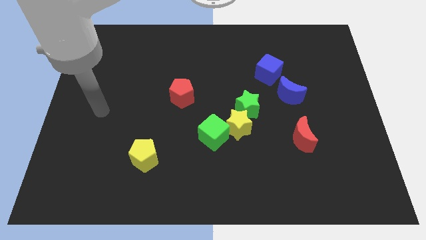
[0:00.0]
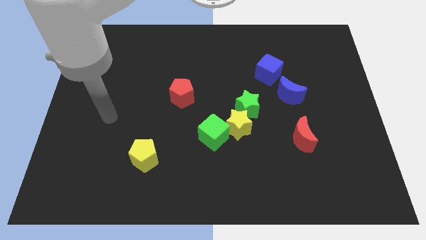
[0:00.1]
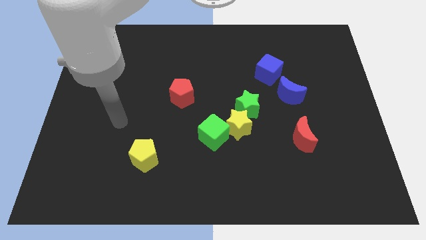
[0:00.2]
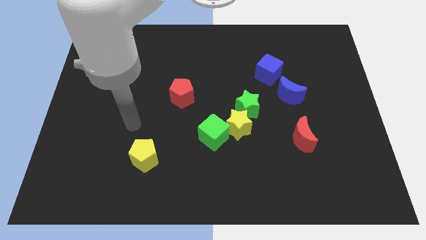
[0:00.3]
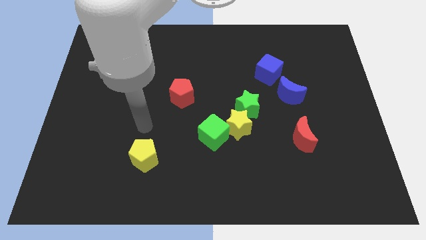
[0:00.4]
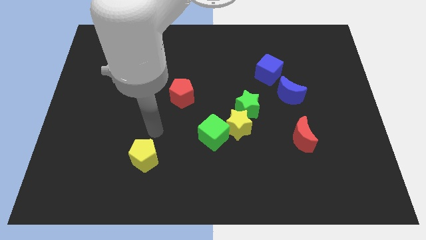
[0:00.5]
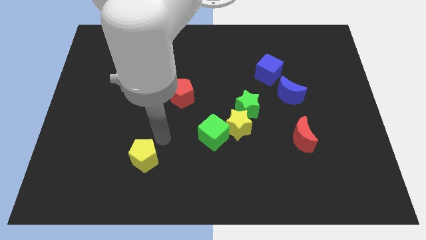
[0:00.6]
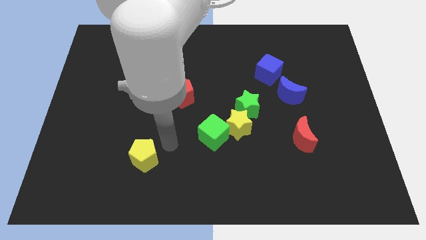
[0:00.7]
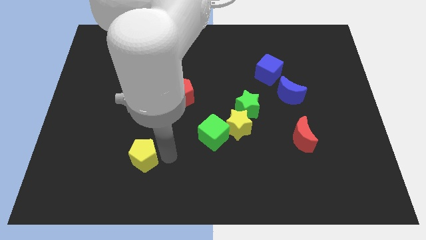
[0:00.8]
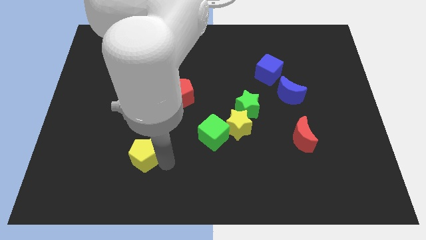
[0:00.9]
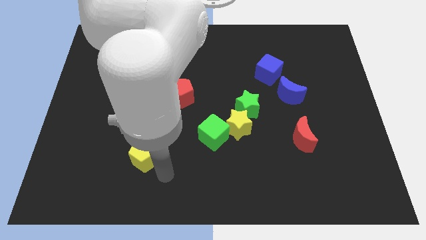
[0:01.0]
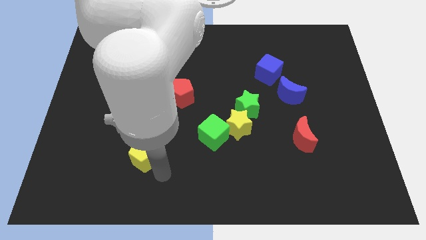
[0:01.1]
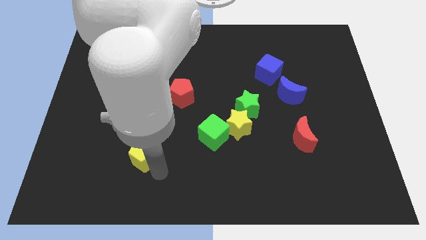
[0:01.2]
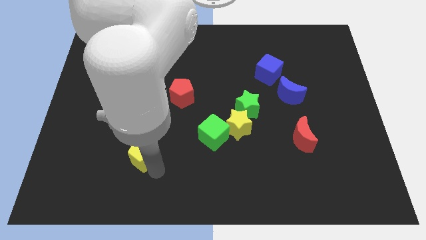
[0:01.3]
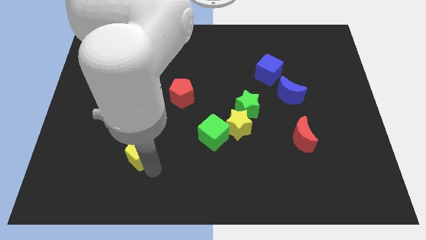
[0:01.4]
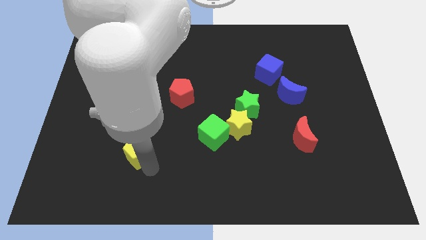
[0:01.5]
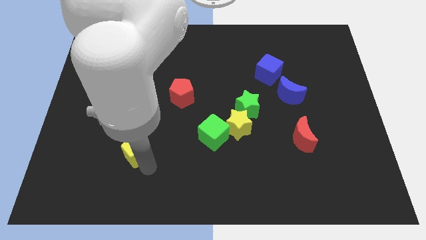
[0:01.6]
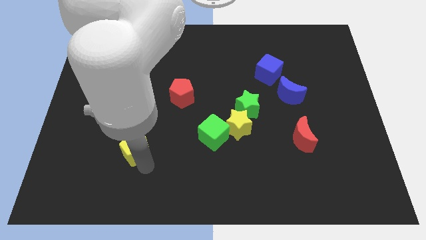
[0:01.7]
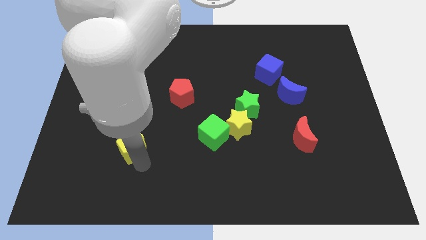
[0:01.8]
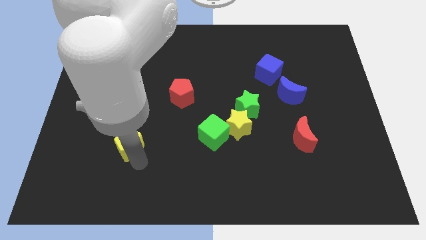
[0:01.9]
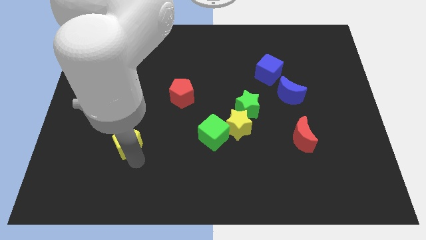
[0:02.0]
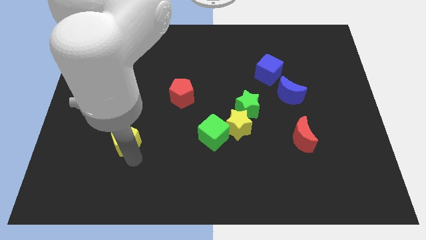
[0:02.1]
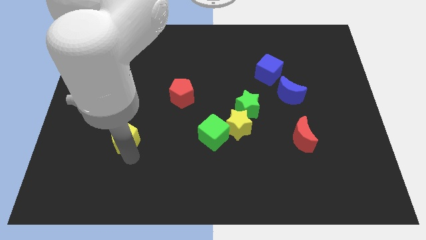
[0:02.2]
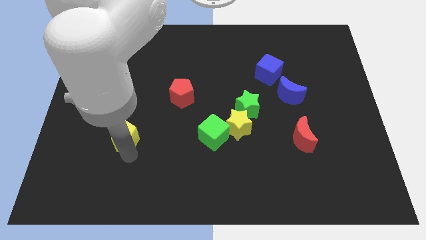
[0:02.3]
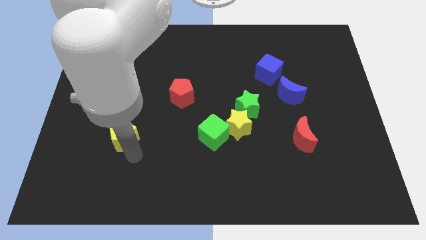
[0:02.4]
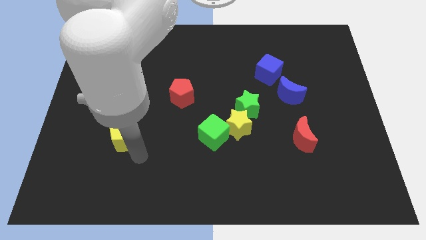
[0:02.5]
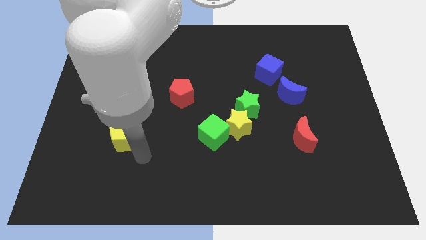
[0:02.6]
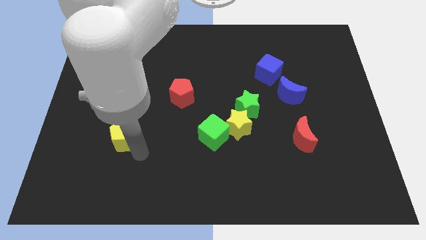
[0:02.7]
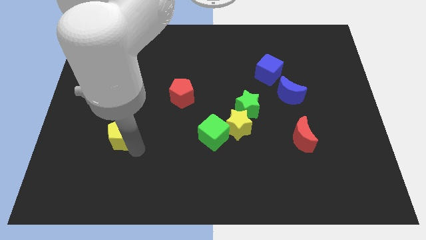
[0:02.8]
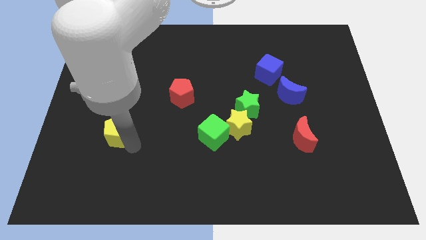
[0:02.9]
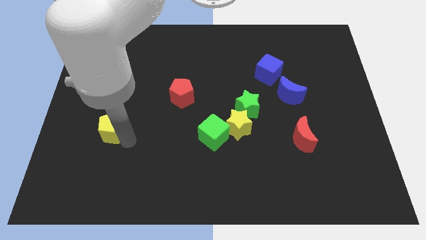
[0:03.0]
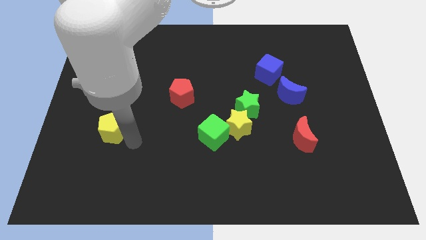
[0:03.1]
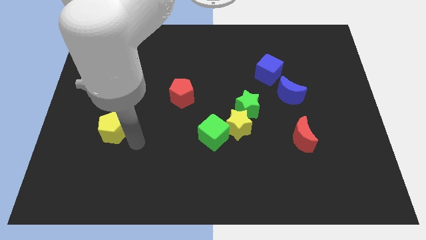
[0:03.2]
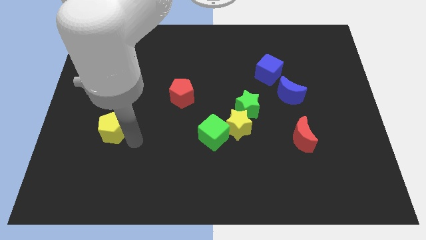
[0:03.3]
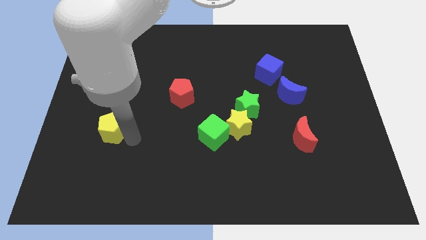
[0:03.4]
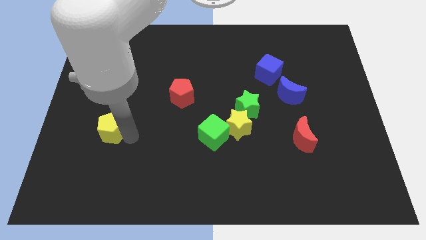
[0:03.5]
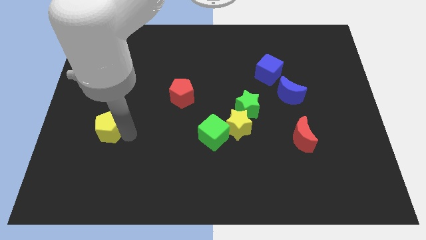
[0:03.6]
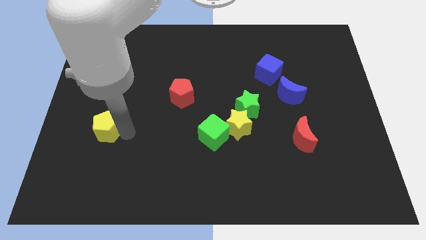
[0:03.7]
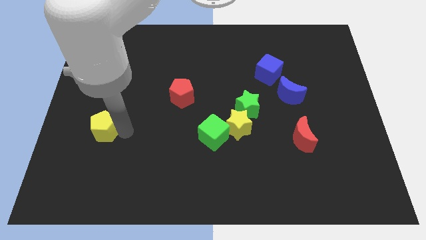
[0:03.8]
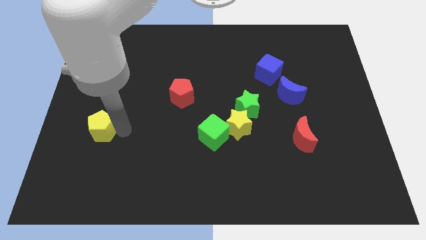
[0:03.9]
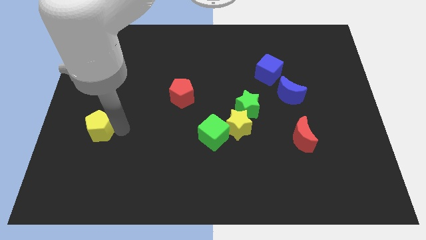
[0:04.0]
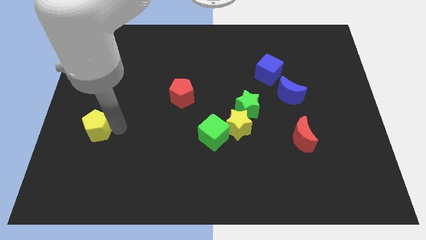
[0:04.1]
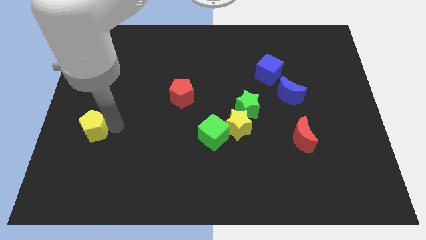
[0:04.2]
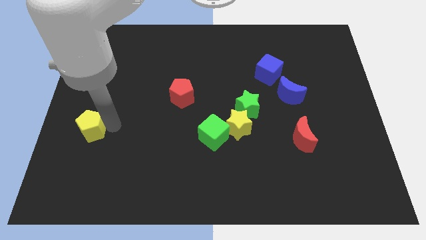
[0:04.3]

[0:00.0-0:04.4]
move the yellow pentagon to the center left

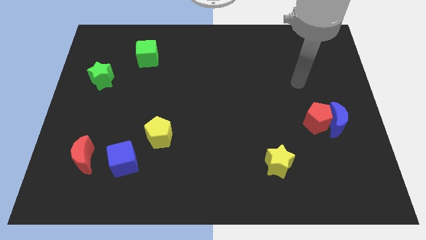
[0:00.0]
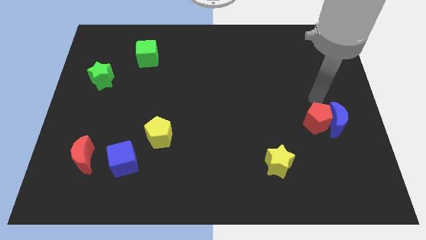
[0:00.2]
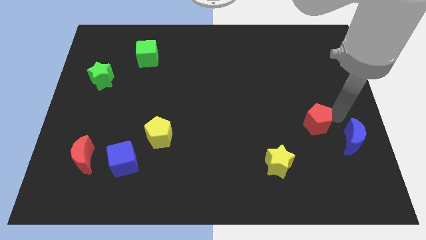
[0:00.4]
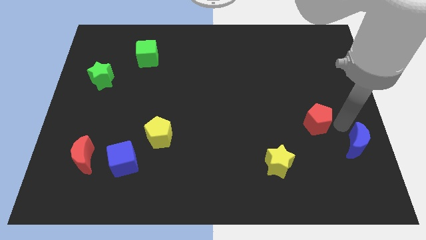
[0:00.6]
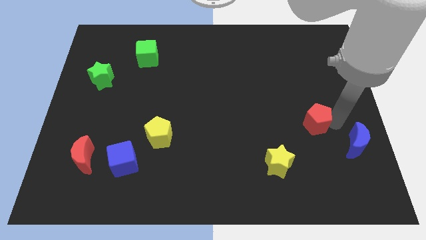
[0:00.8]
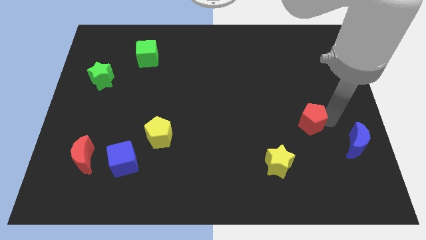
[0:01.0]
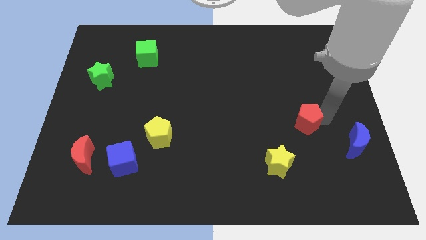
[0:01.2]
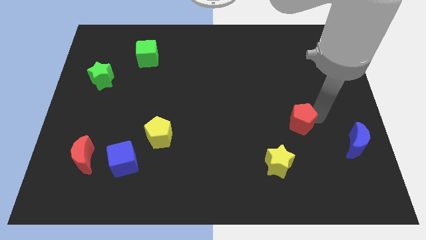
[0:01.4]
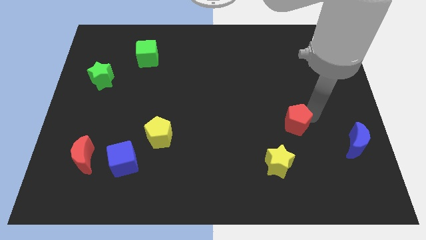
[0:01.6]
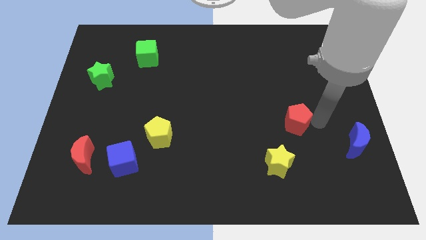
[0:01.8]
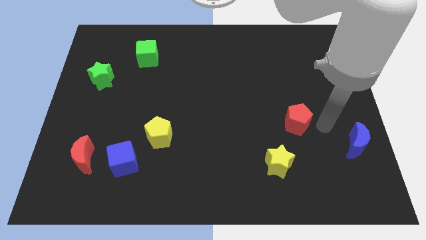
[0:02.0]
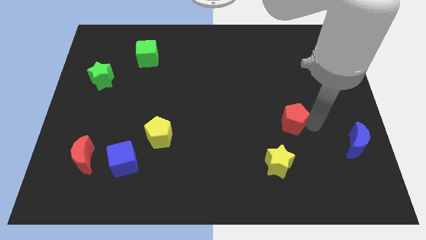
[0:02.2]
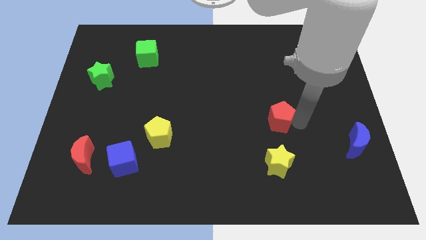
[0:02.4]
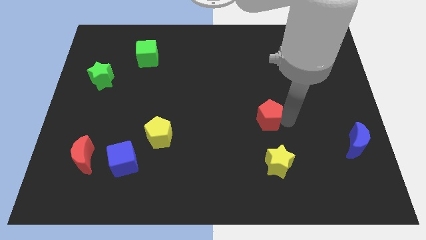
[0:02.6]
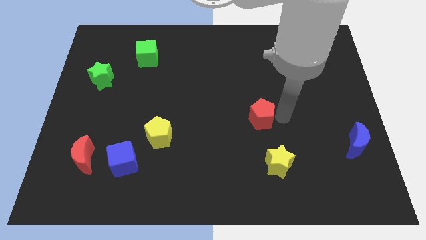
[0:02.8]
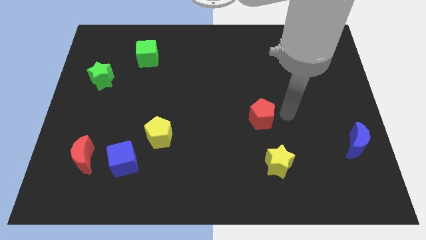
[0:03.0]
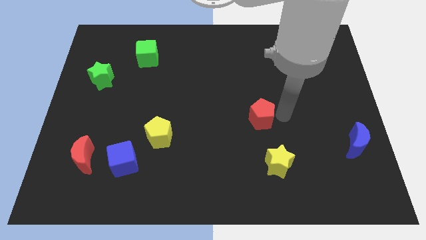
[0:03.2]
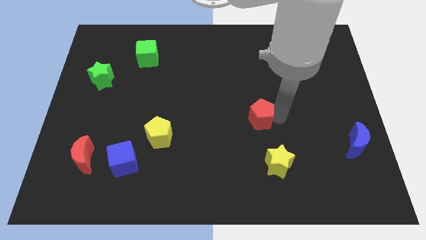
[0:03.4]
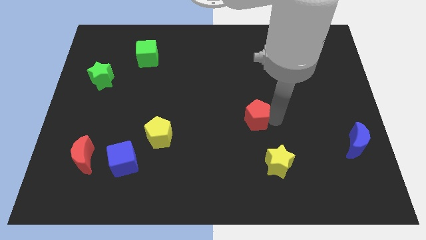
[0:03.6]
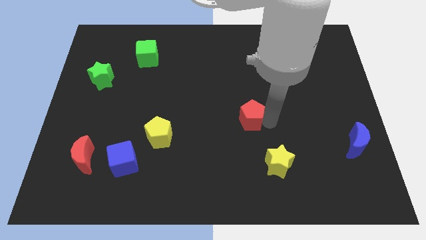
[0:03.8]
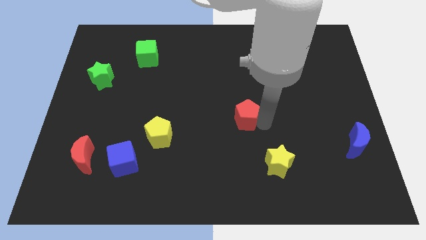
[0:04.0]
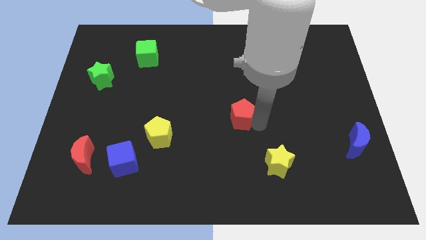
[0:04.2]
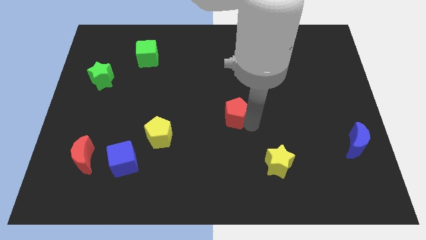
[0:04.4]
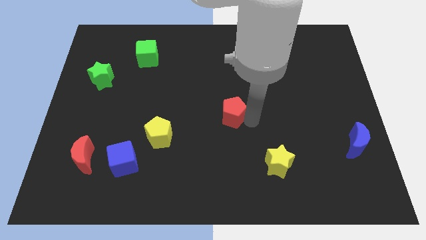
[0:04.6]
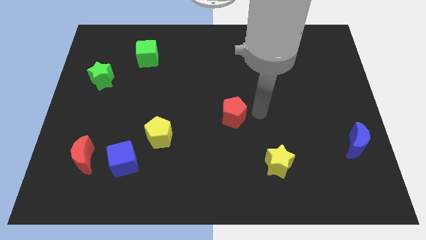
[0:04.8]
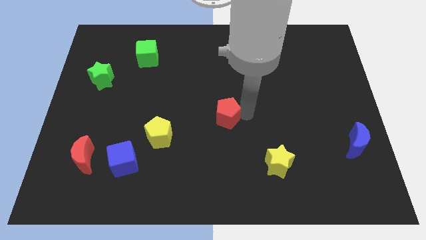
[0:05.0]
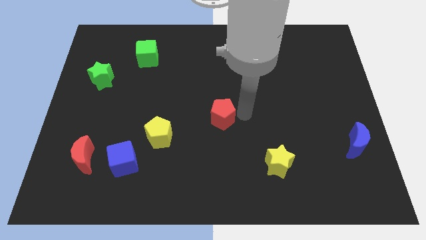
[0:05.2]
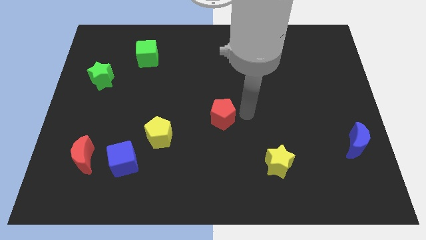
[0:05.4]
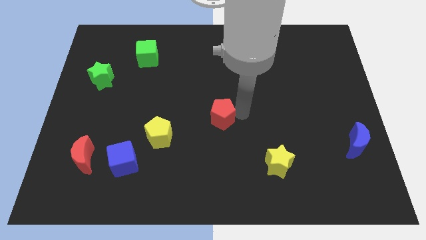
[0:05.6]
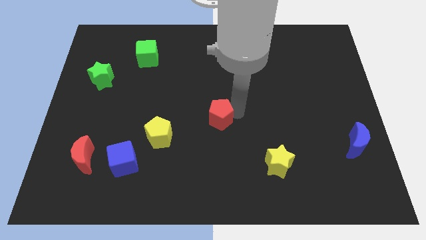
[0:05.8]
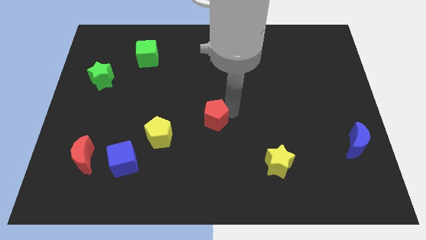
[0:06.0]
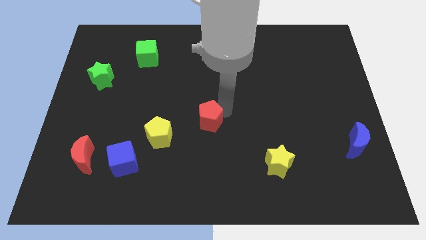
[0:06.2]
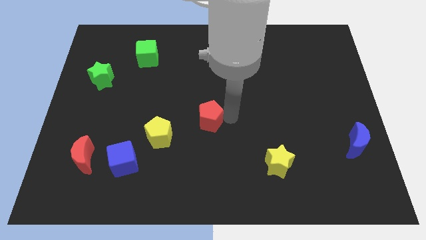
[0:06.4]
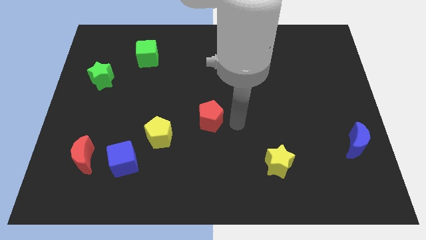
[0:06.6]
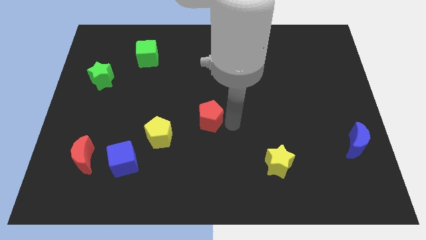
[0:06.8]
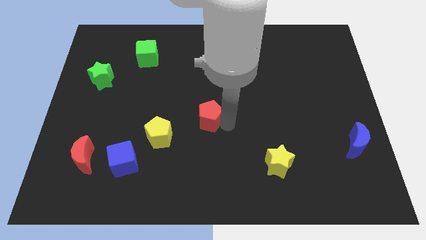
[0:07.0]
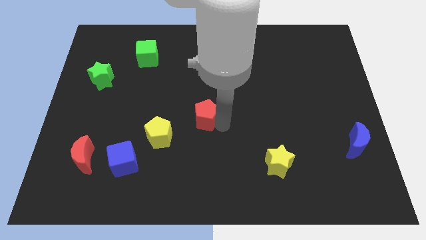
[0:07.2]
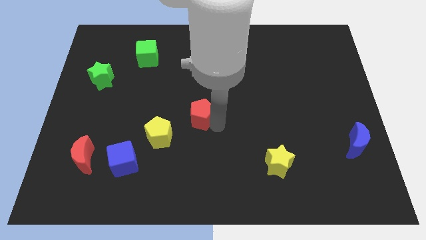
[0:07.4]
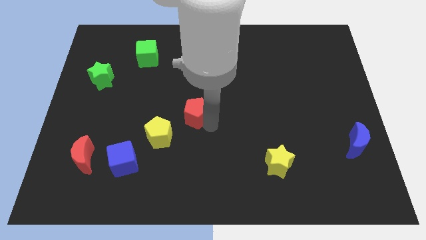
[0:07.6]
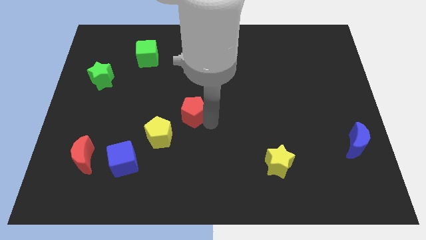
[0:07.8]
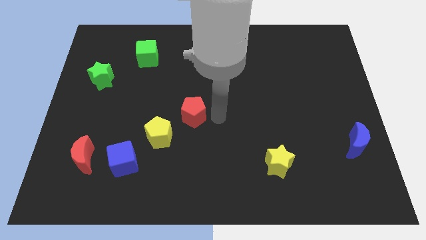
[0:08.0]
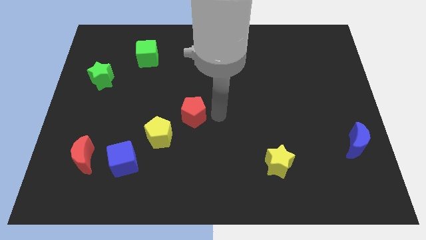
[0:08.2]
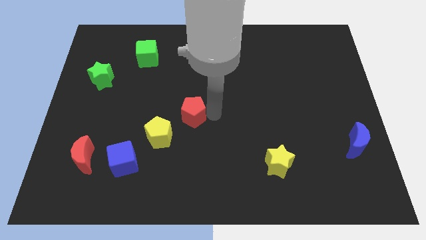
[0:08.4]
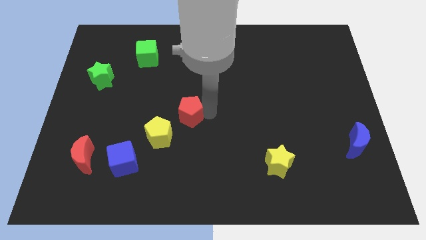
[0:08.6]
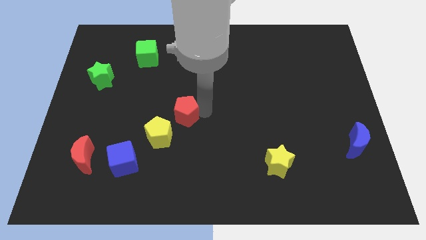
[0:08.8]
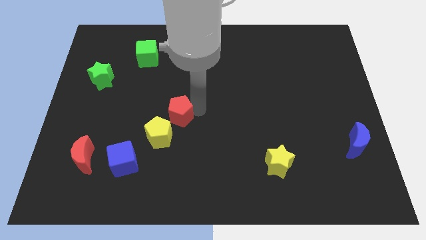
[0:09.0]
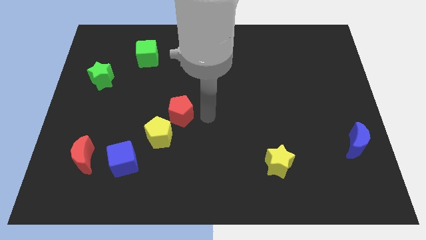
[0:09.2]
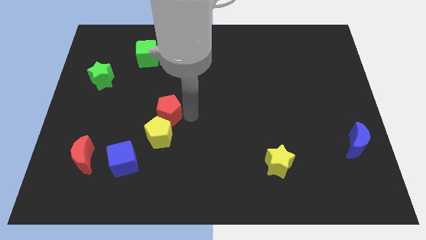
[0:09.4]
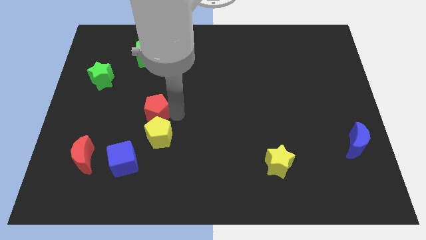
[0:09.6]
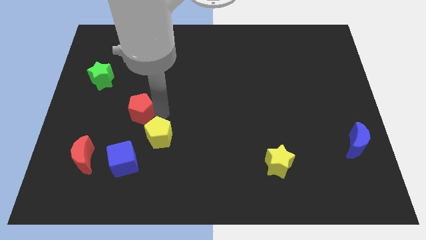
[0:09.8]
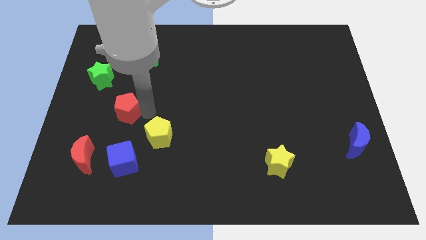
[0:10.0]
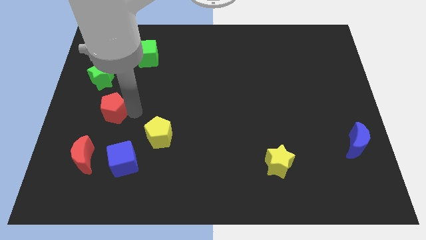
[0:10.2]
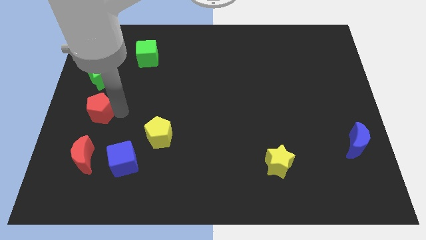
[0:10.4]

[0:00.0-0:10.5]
slide the red pentagon to the center left
